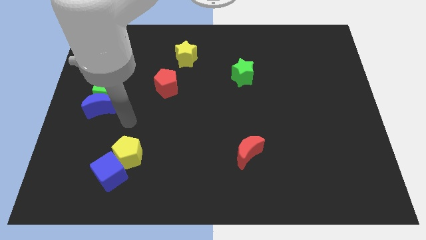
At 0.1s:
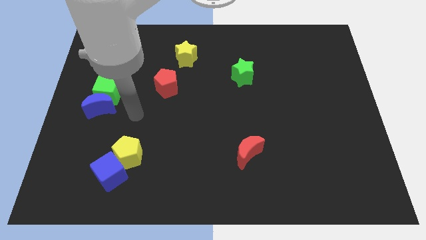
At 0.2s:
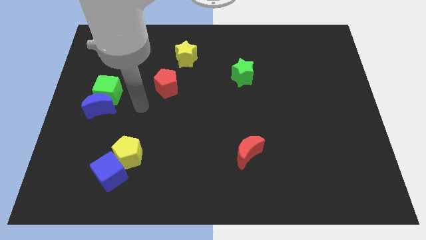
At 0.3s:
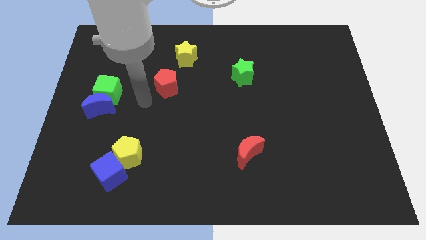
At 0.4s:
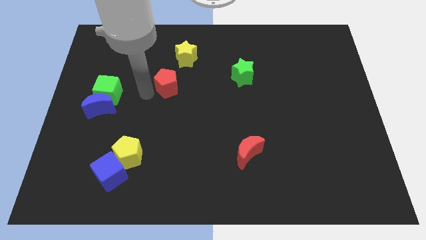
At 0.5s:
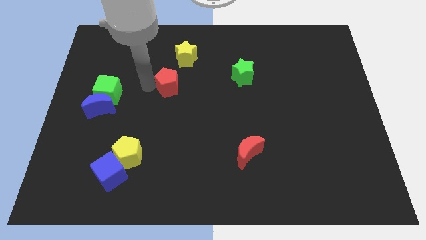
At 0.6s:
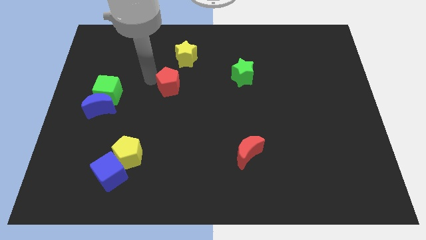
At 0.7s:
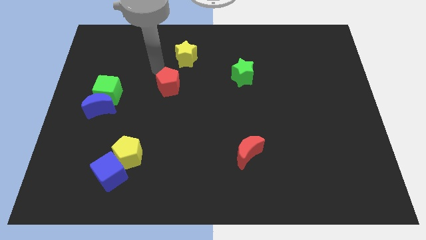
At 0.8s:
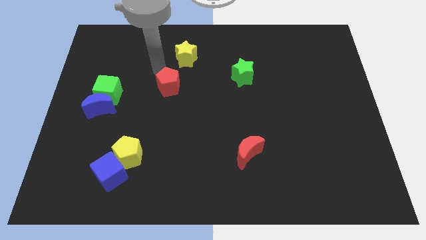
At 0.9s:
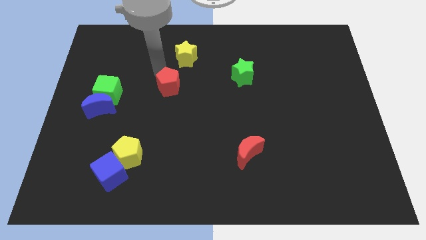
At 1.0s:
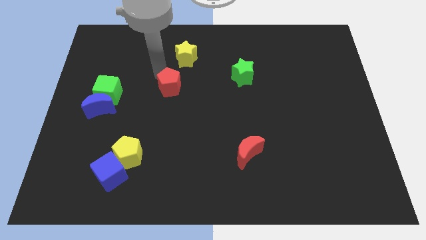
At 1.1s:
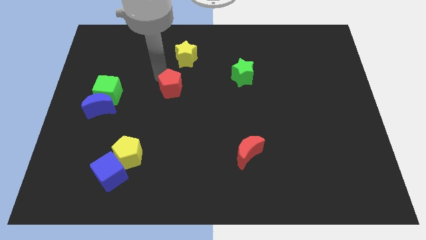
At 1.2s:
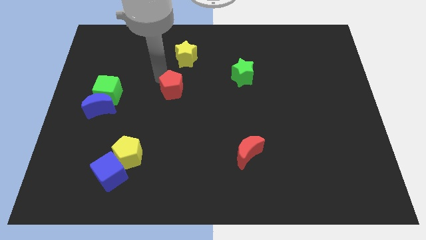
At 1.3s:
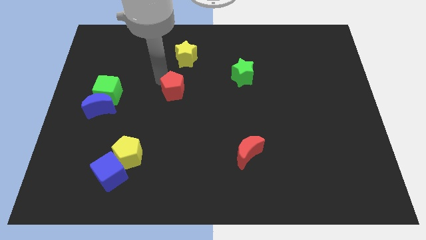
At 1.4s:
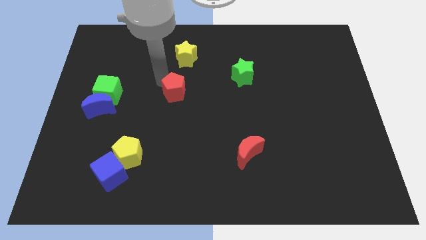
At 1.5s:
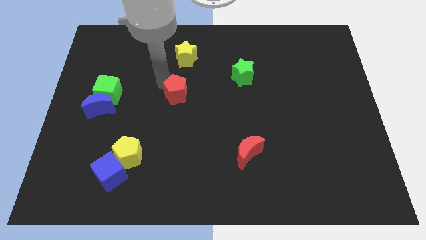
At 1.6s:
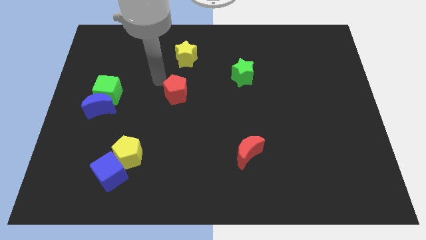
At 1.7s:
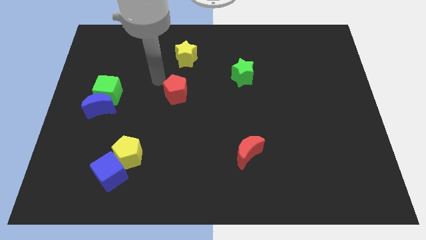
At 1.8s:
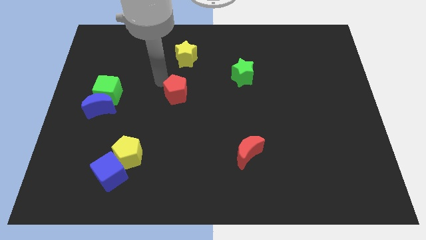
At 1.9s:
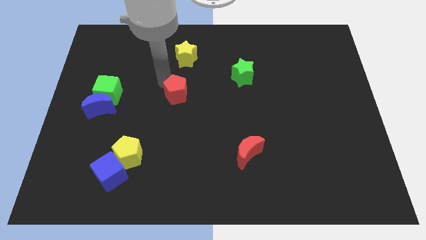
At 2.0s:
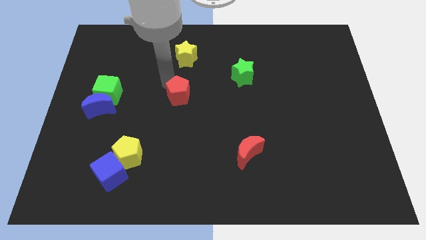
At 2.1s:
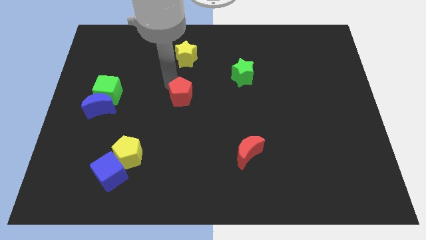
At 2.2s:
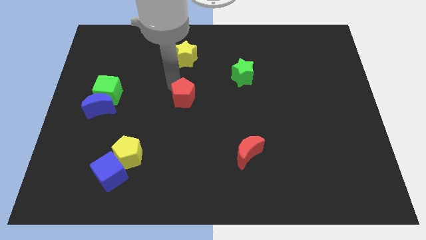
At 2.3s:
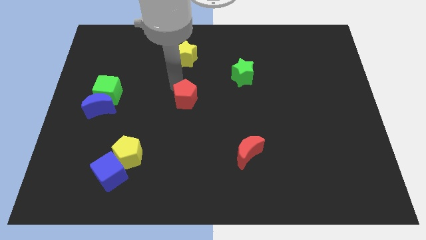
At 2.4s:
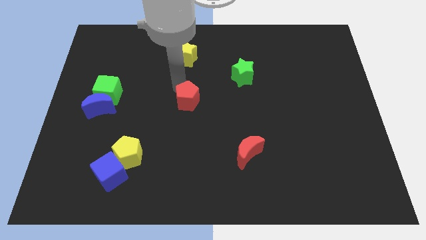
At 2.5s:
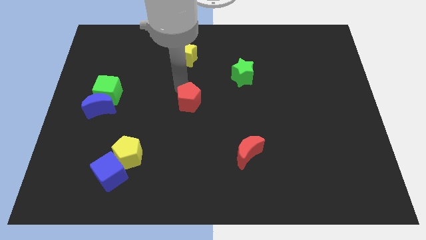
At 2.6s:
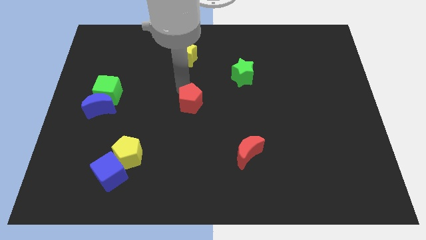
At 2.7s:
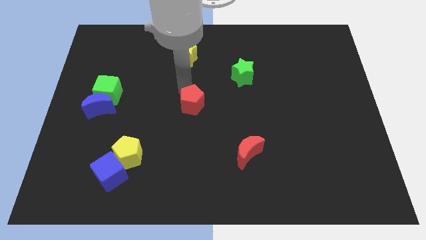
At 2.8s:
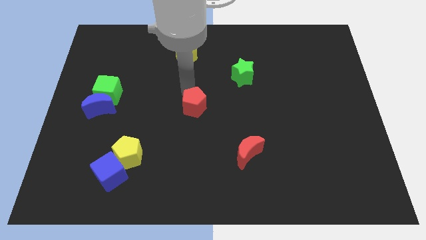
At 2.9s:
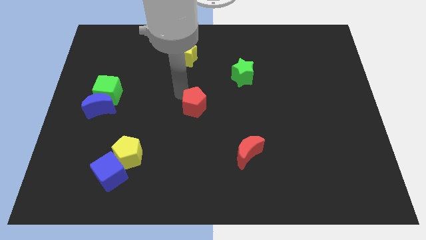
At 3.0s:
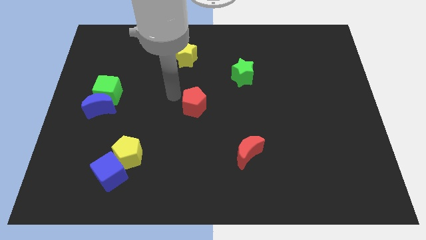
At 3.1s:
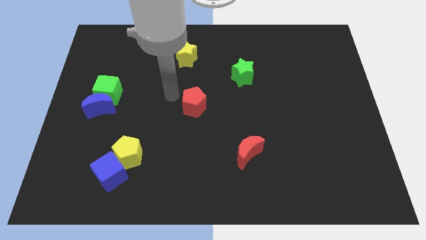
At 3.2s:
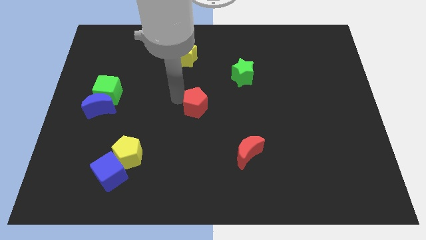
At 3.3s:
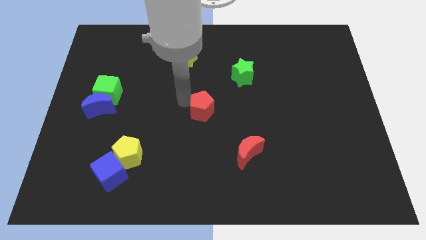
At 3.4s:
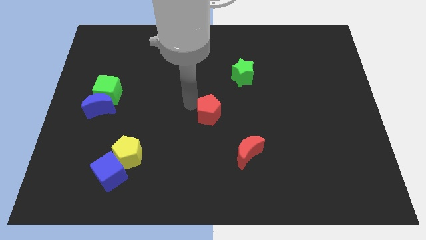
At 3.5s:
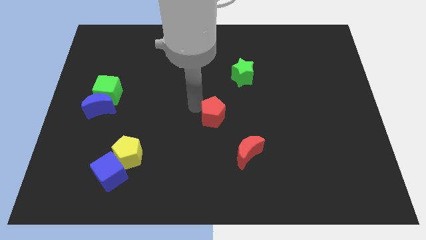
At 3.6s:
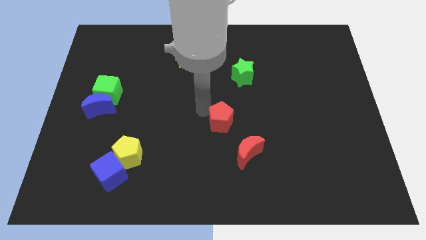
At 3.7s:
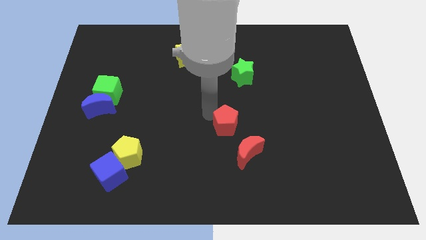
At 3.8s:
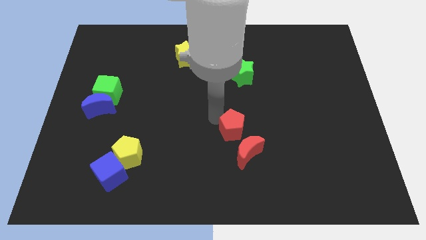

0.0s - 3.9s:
move the red pentagon diagonally down and right

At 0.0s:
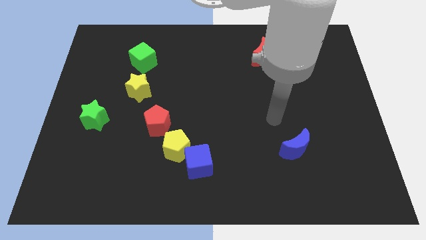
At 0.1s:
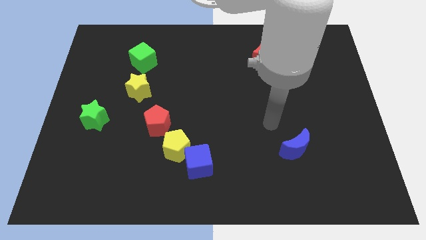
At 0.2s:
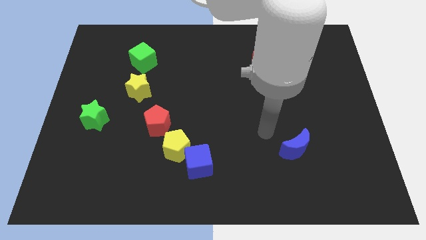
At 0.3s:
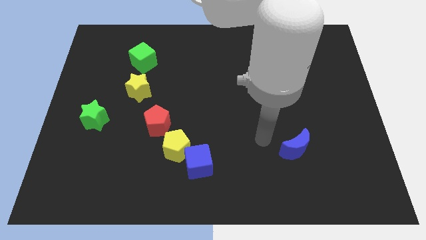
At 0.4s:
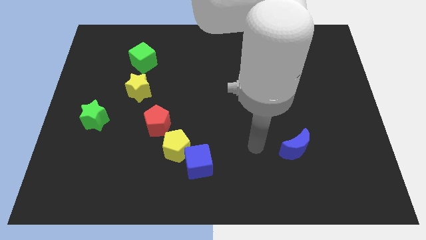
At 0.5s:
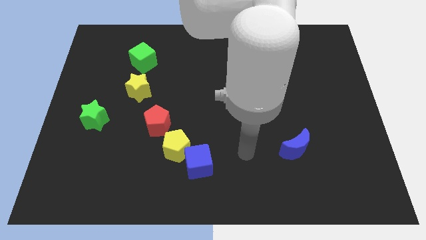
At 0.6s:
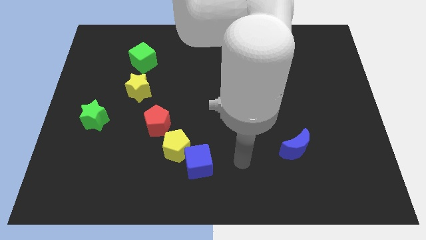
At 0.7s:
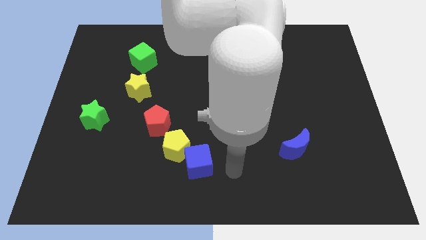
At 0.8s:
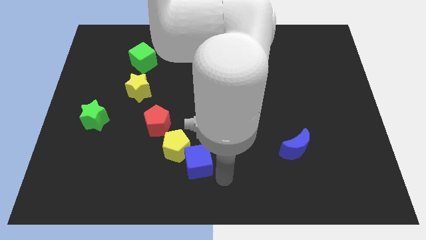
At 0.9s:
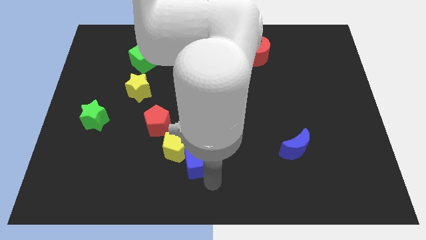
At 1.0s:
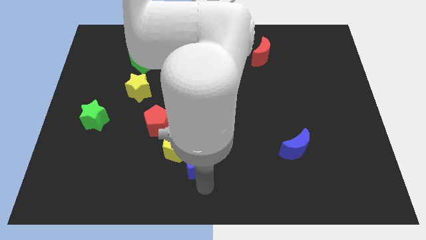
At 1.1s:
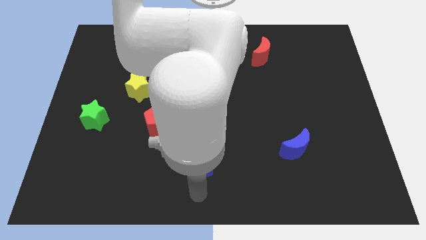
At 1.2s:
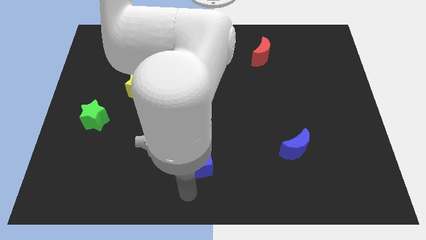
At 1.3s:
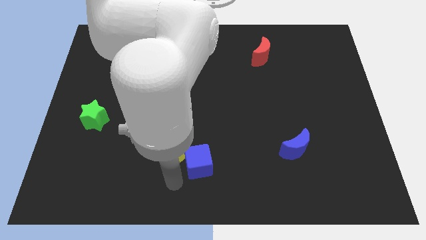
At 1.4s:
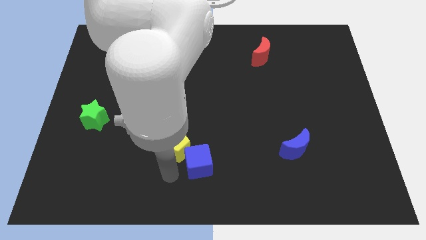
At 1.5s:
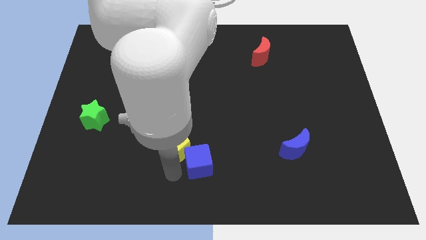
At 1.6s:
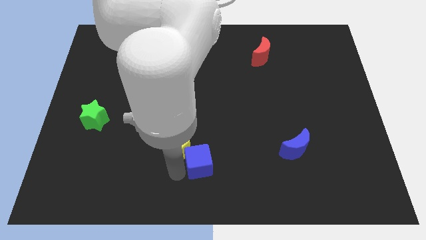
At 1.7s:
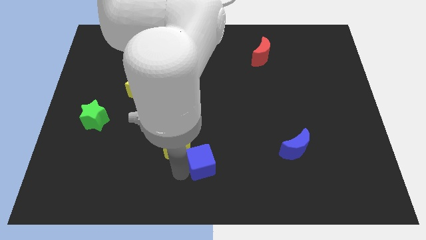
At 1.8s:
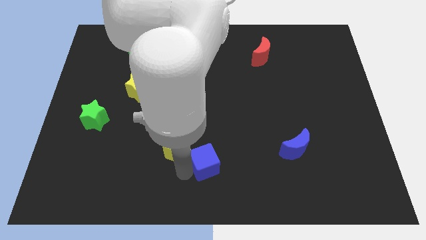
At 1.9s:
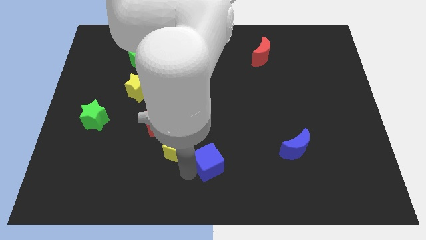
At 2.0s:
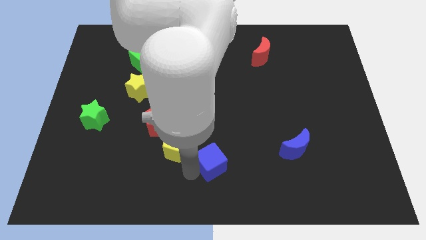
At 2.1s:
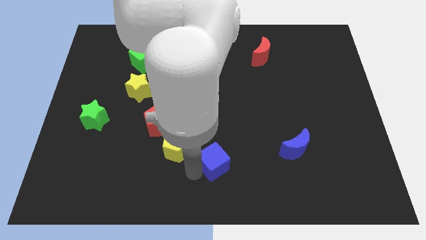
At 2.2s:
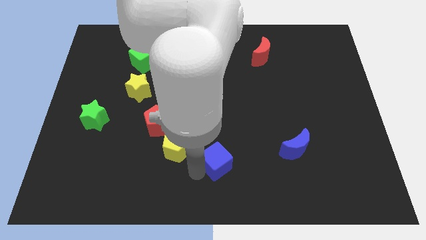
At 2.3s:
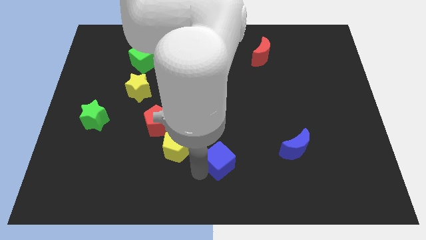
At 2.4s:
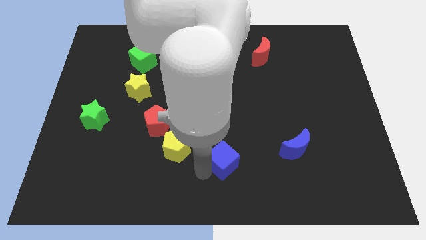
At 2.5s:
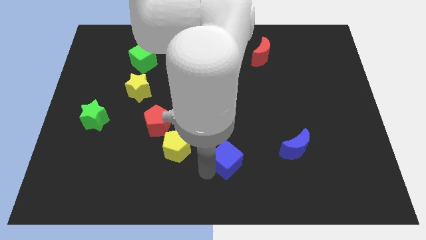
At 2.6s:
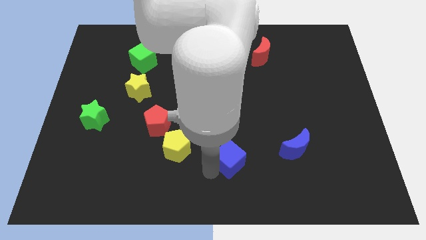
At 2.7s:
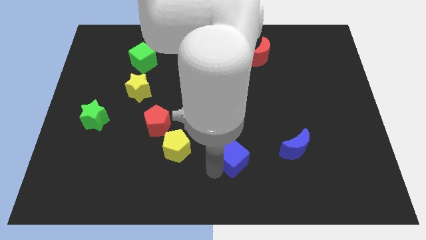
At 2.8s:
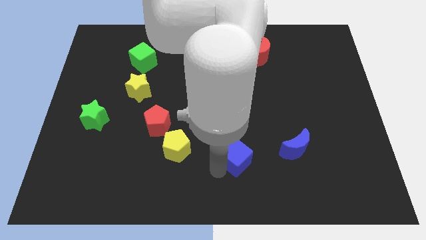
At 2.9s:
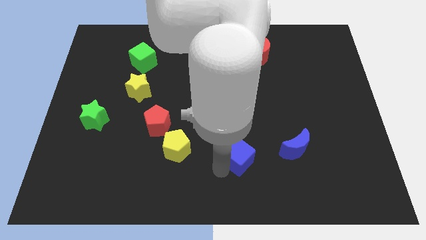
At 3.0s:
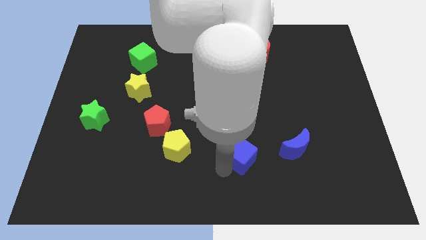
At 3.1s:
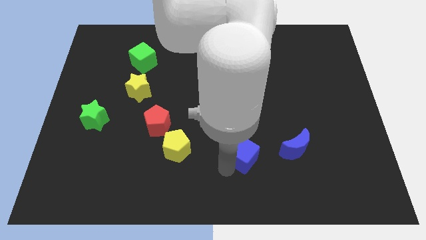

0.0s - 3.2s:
move the blue cube up and to the right somewhat

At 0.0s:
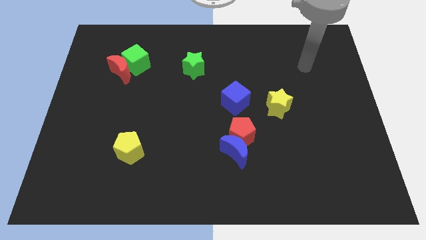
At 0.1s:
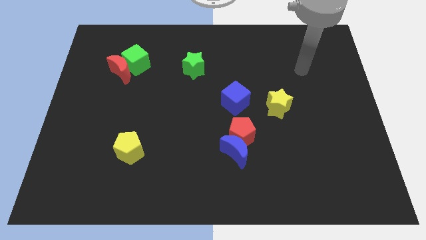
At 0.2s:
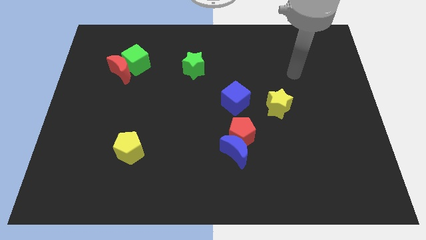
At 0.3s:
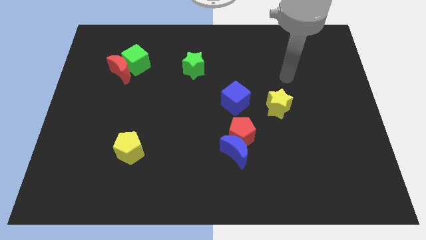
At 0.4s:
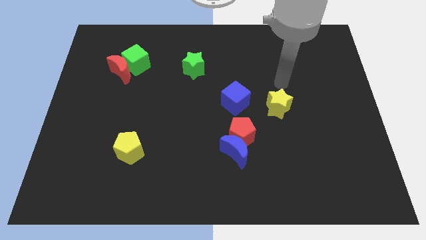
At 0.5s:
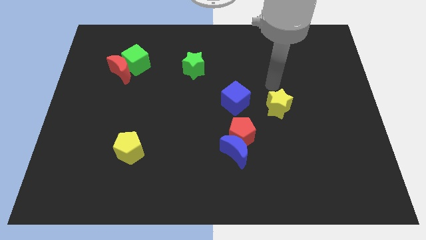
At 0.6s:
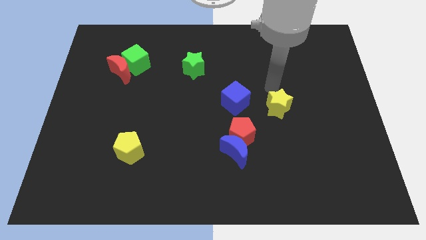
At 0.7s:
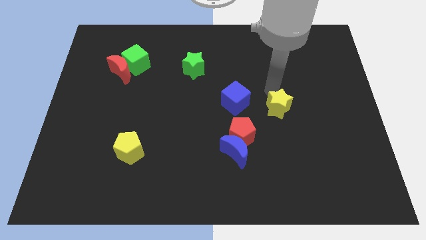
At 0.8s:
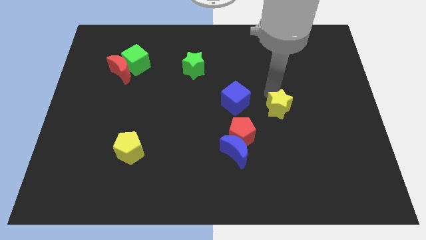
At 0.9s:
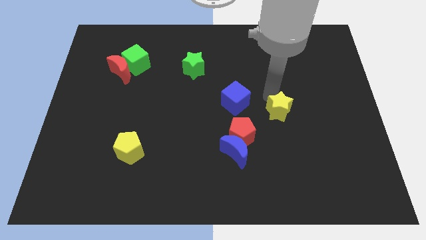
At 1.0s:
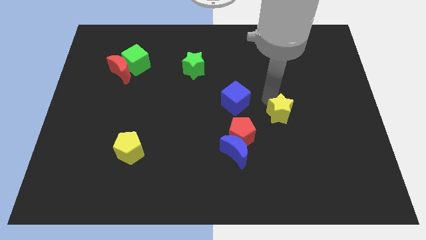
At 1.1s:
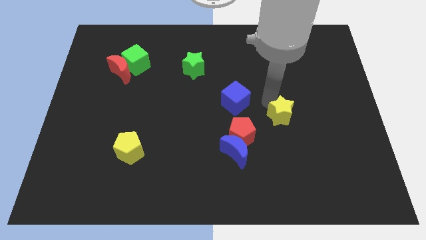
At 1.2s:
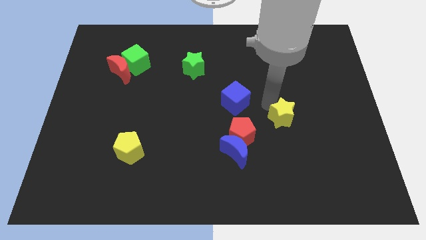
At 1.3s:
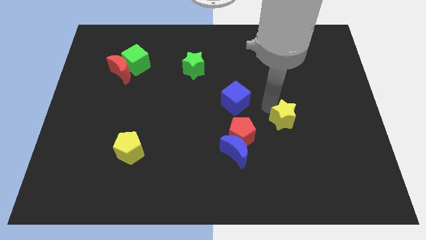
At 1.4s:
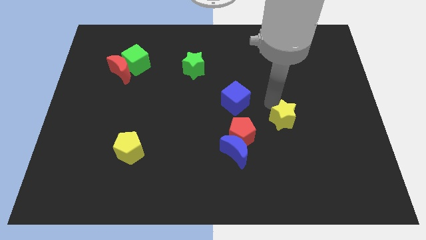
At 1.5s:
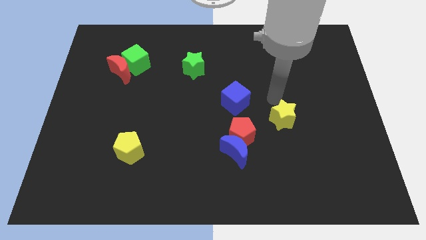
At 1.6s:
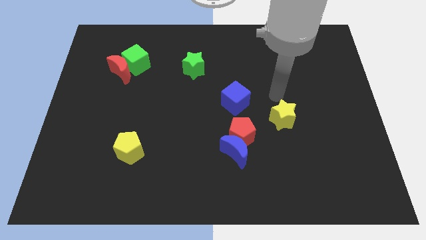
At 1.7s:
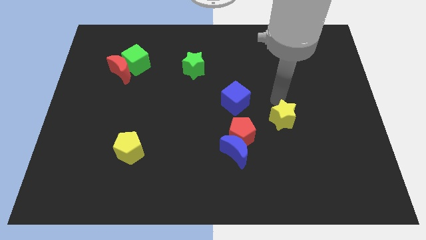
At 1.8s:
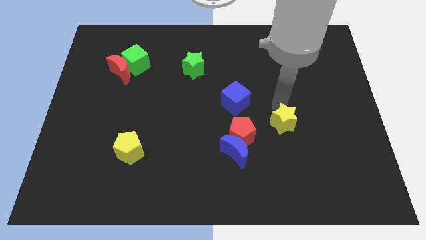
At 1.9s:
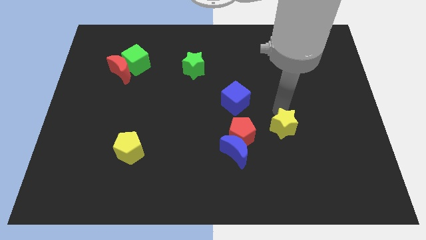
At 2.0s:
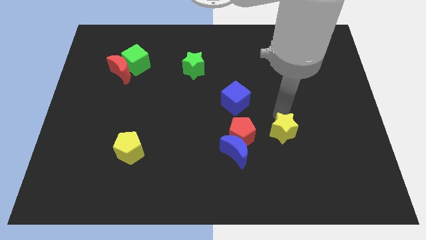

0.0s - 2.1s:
slightly slide the yellow star down
